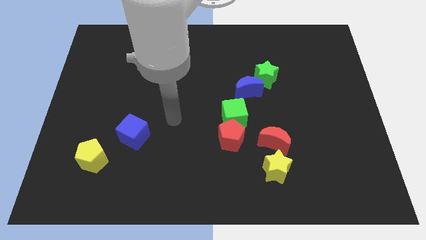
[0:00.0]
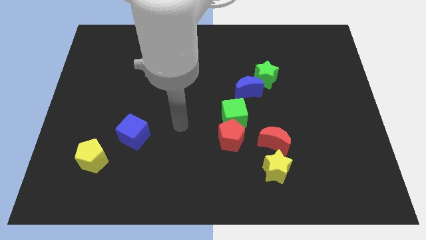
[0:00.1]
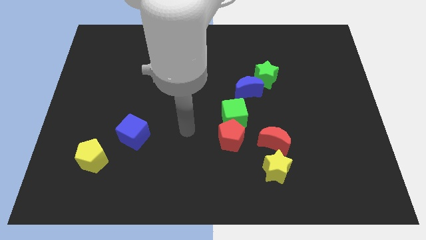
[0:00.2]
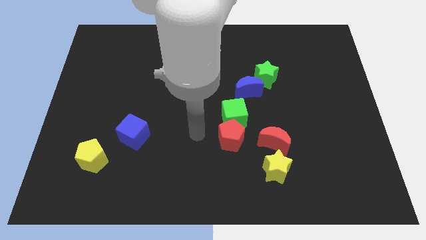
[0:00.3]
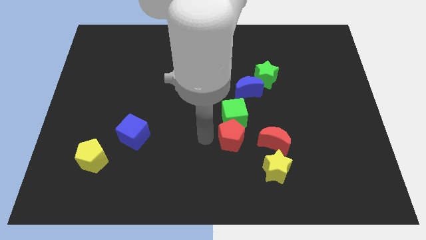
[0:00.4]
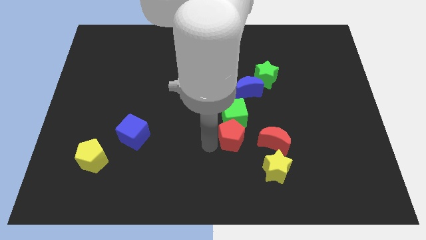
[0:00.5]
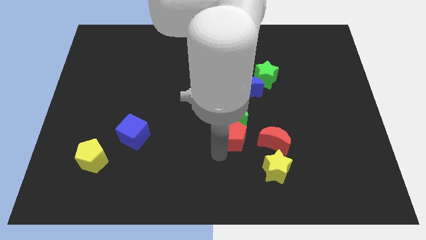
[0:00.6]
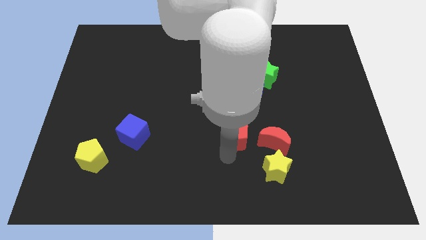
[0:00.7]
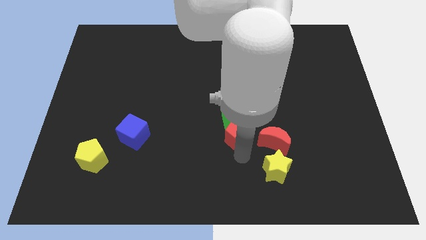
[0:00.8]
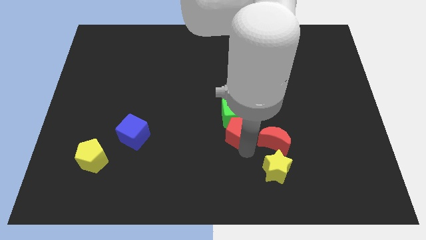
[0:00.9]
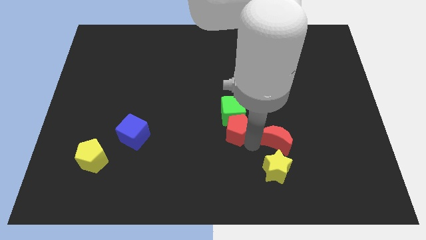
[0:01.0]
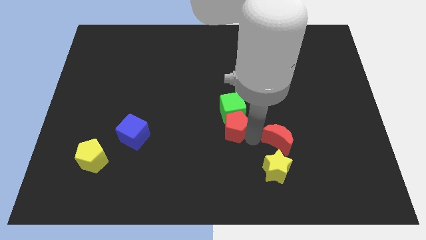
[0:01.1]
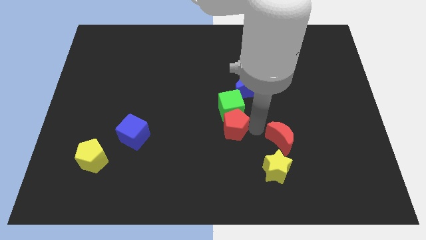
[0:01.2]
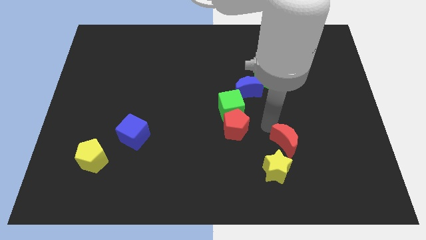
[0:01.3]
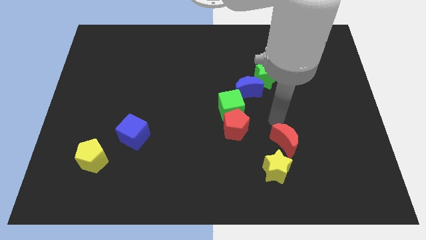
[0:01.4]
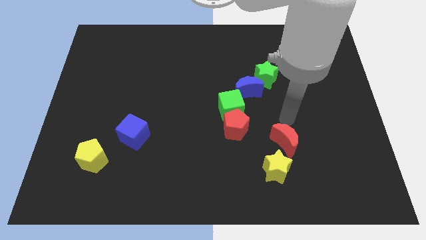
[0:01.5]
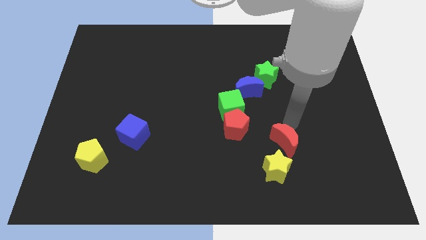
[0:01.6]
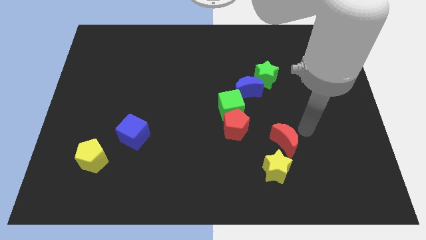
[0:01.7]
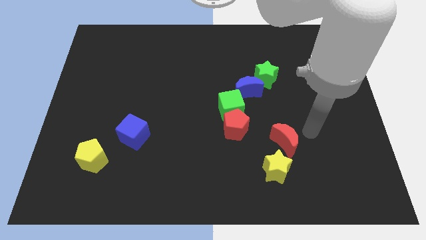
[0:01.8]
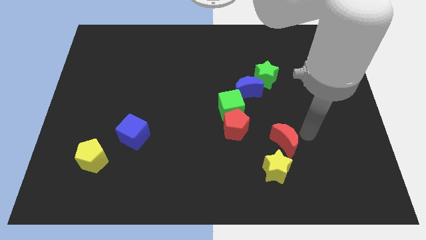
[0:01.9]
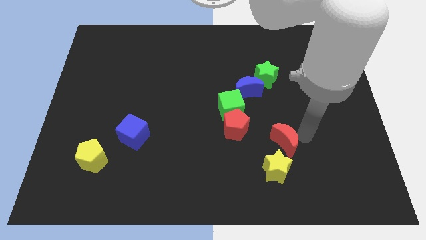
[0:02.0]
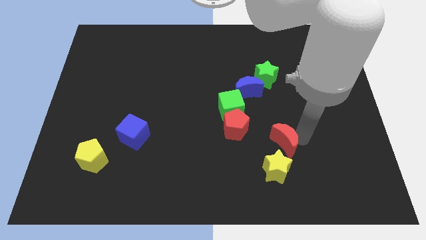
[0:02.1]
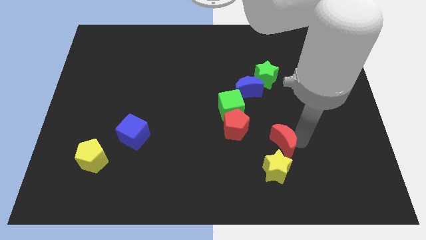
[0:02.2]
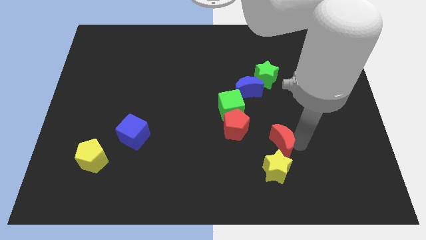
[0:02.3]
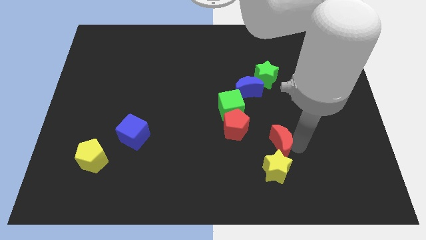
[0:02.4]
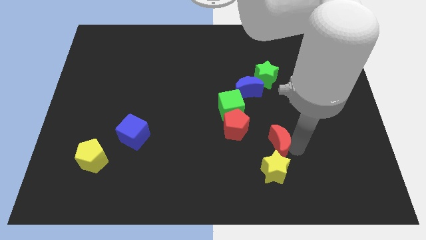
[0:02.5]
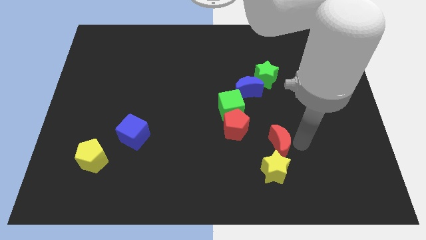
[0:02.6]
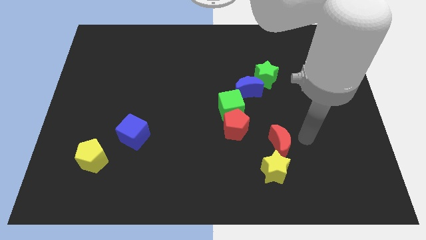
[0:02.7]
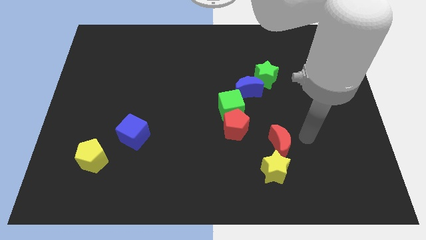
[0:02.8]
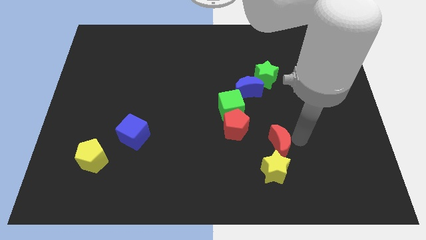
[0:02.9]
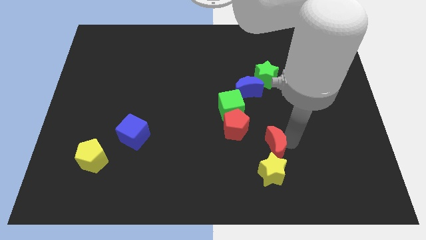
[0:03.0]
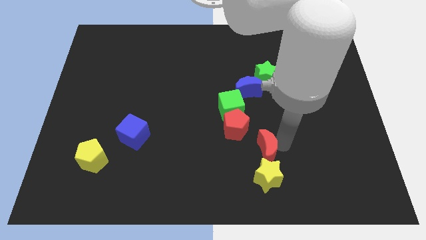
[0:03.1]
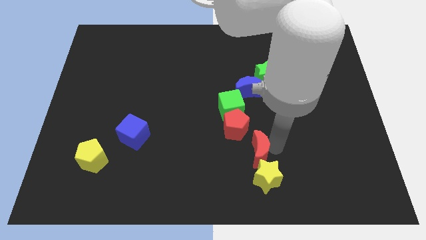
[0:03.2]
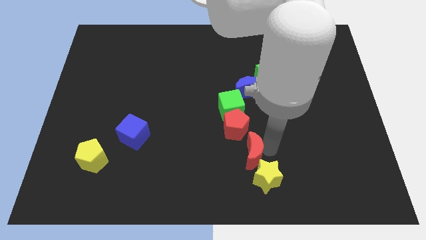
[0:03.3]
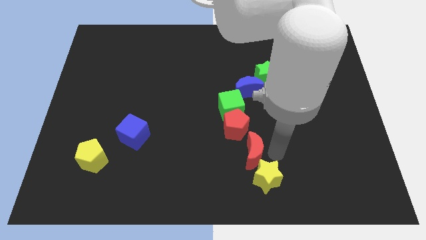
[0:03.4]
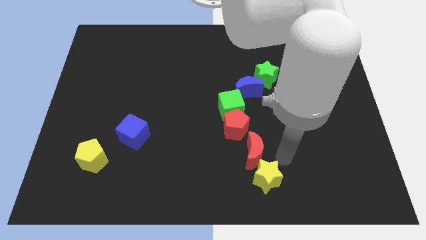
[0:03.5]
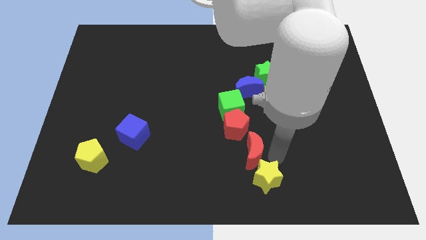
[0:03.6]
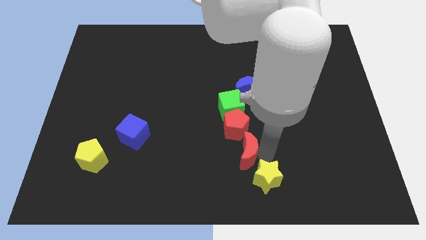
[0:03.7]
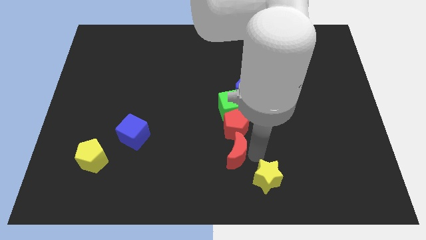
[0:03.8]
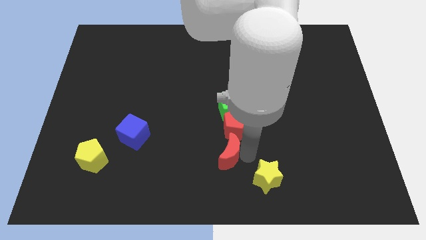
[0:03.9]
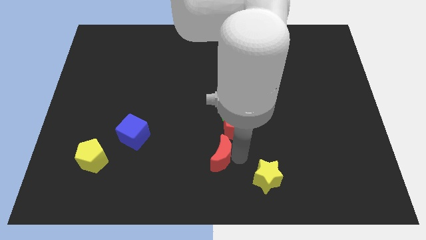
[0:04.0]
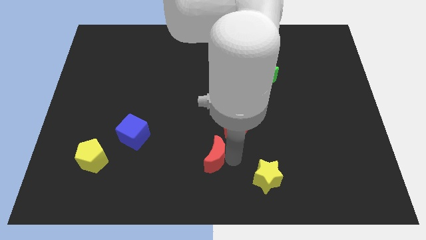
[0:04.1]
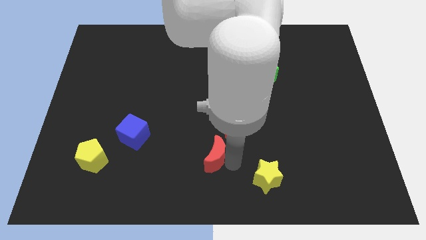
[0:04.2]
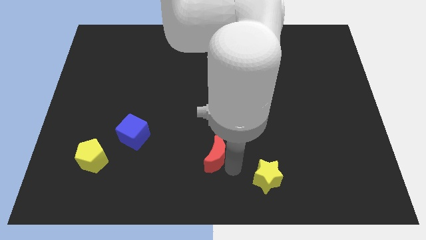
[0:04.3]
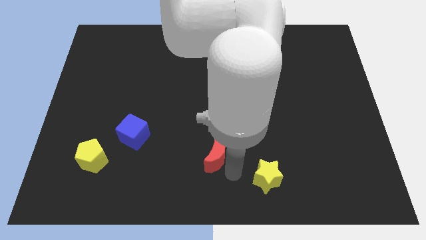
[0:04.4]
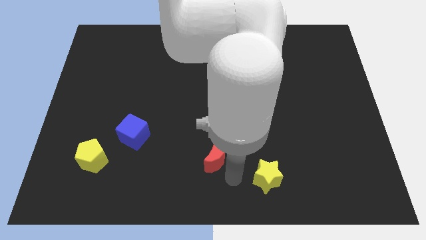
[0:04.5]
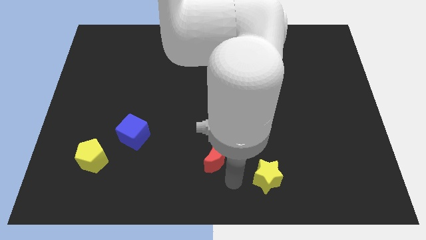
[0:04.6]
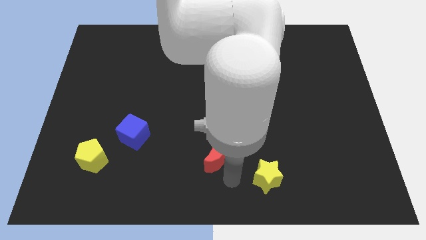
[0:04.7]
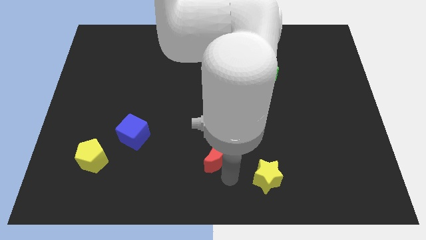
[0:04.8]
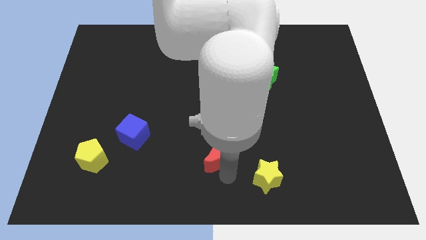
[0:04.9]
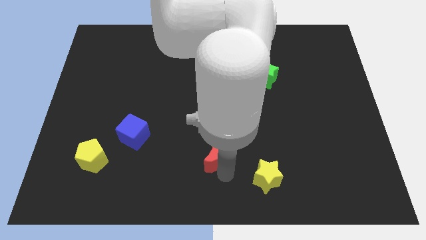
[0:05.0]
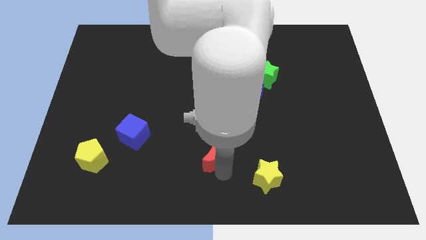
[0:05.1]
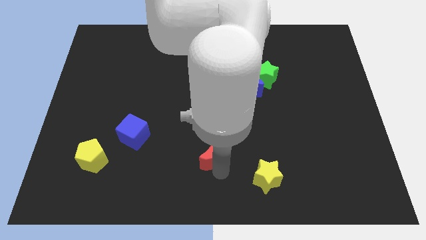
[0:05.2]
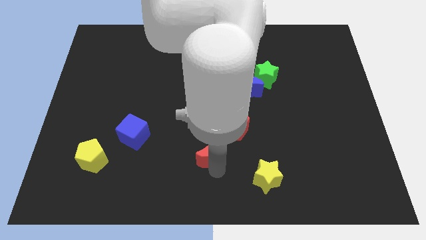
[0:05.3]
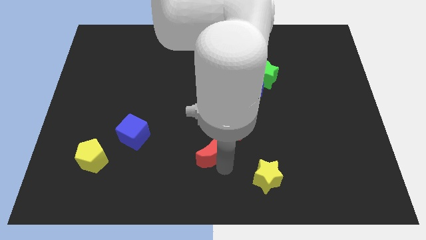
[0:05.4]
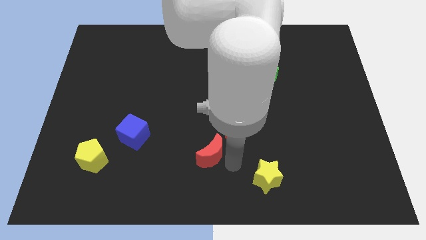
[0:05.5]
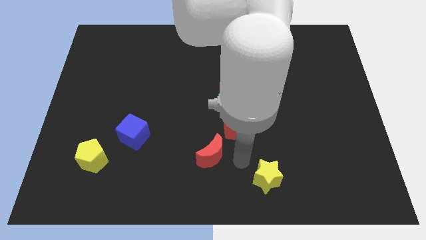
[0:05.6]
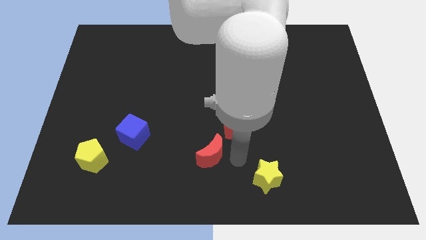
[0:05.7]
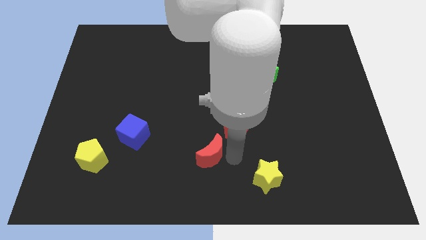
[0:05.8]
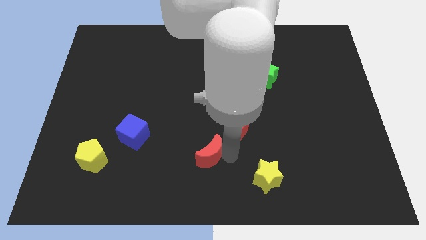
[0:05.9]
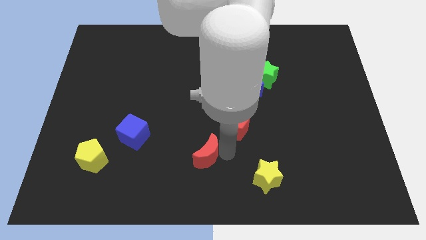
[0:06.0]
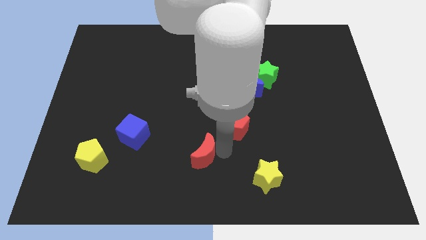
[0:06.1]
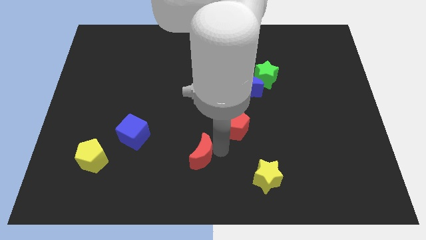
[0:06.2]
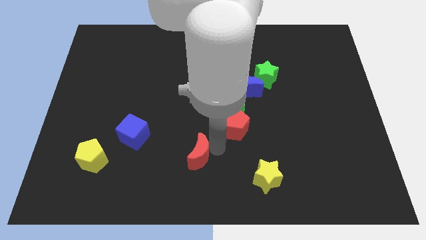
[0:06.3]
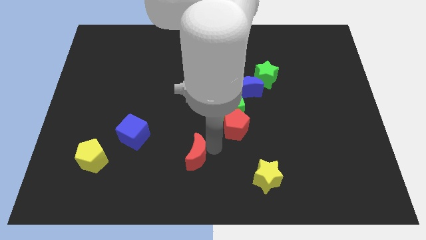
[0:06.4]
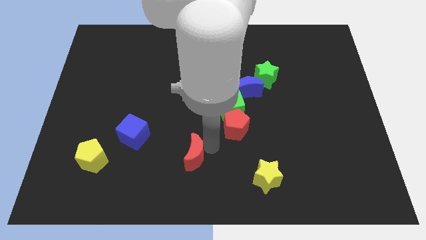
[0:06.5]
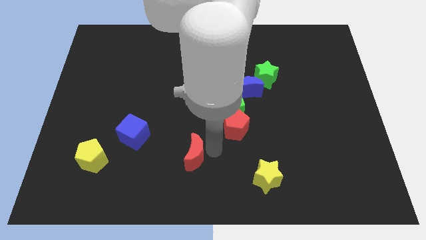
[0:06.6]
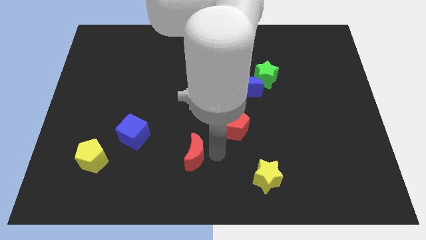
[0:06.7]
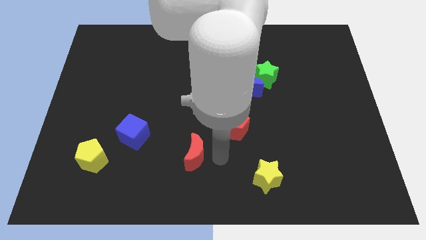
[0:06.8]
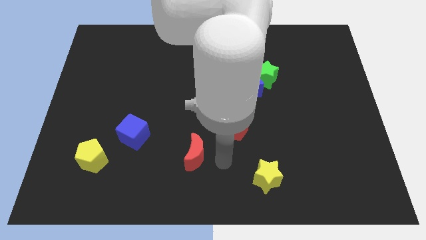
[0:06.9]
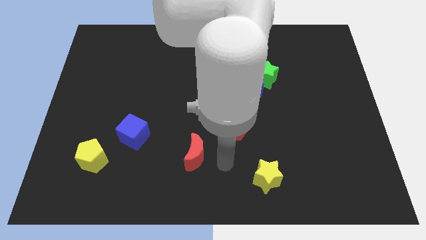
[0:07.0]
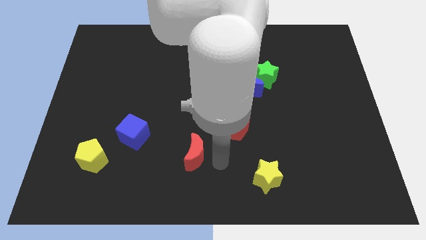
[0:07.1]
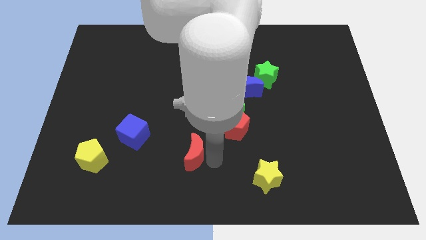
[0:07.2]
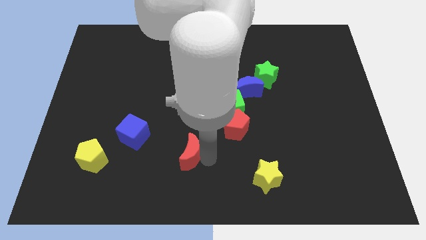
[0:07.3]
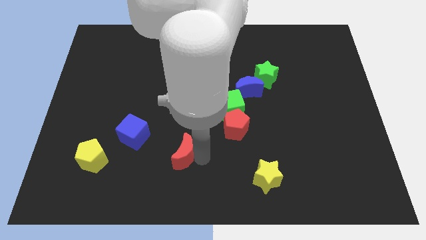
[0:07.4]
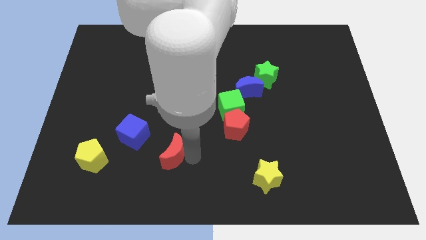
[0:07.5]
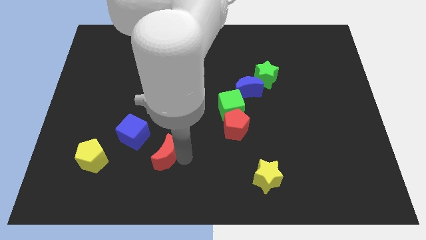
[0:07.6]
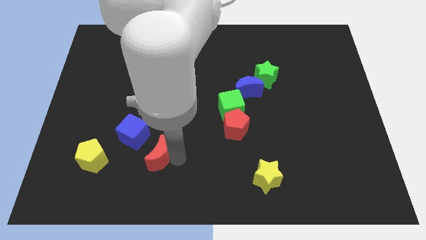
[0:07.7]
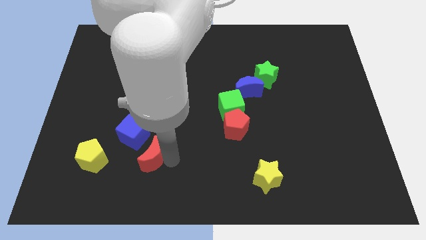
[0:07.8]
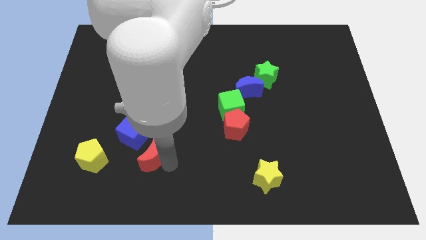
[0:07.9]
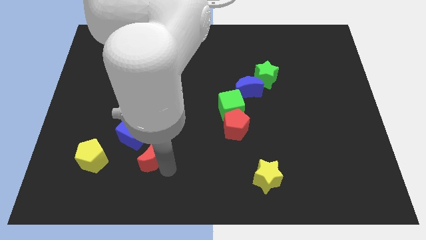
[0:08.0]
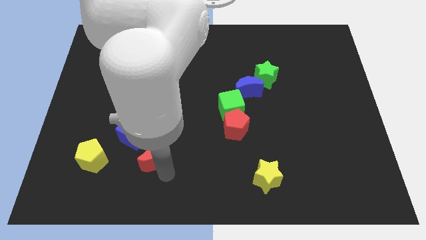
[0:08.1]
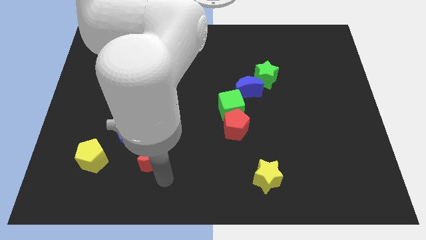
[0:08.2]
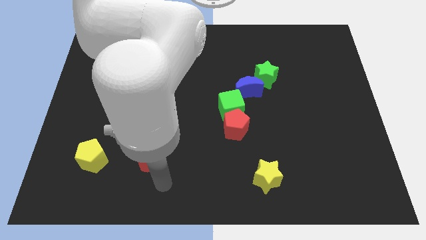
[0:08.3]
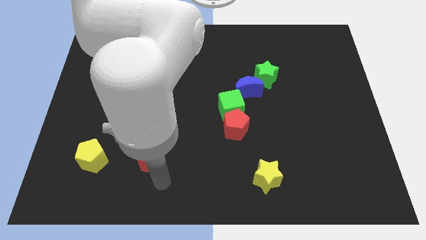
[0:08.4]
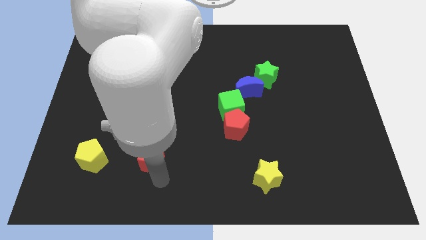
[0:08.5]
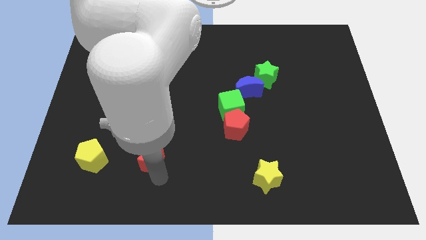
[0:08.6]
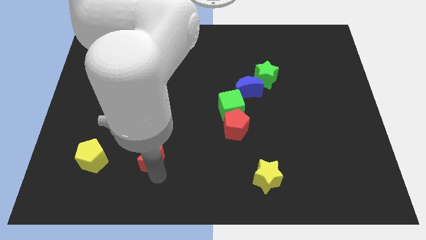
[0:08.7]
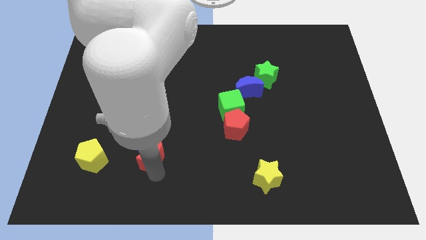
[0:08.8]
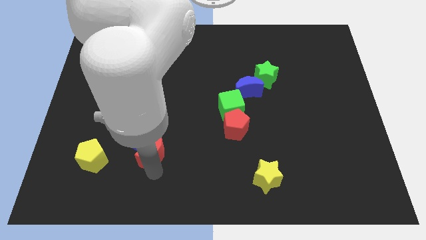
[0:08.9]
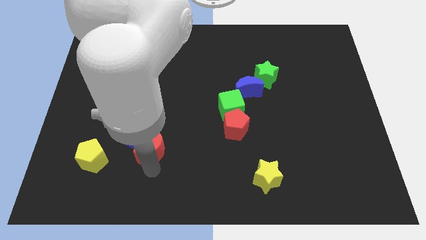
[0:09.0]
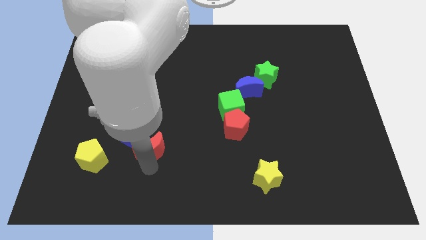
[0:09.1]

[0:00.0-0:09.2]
slide the red moon next to the blue cube
